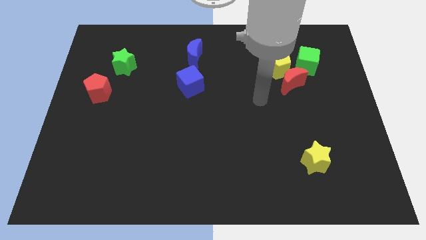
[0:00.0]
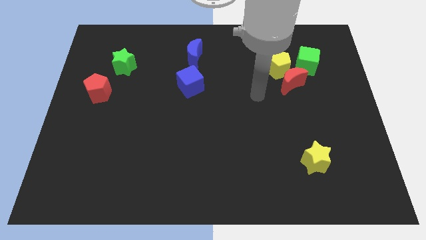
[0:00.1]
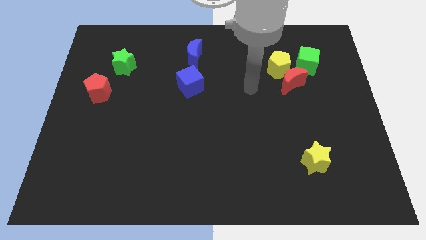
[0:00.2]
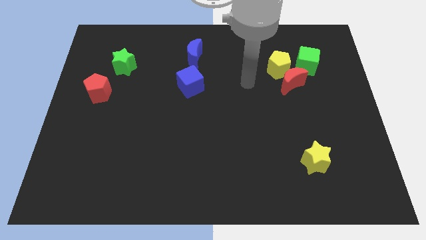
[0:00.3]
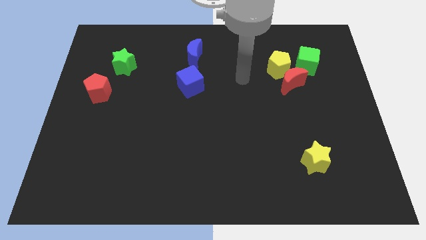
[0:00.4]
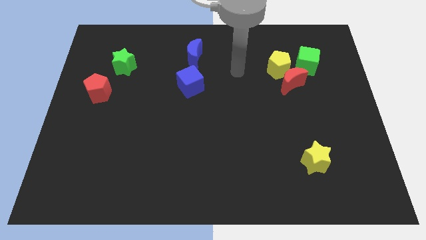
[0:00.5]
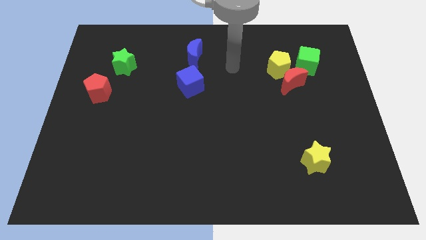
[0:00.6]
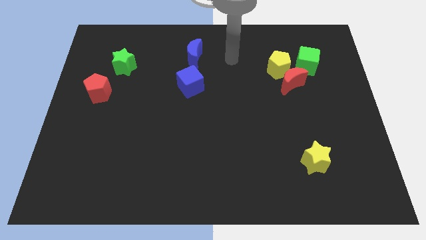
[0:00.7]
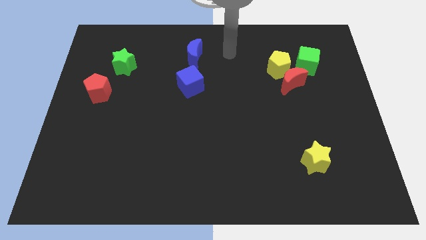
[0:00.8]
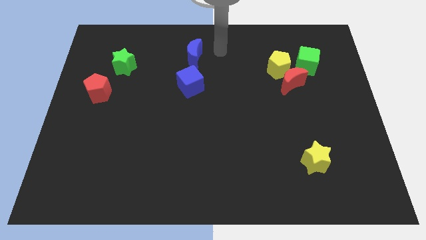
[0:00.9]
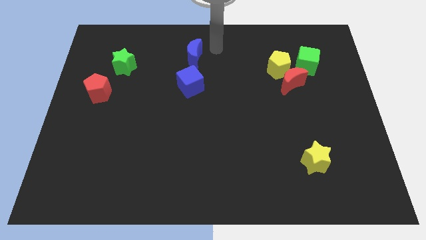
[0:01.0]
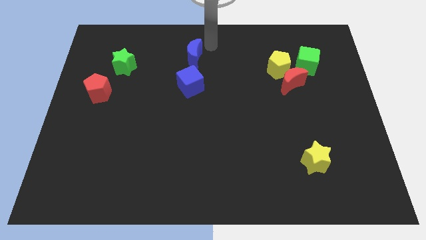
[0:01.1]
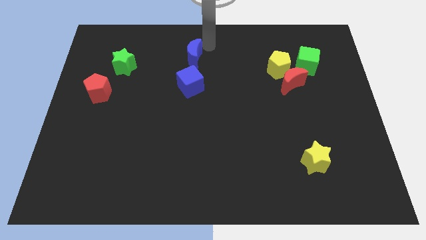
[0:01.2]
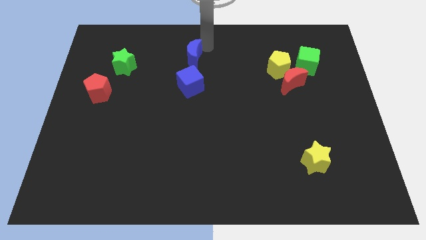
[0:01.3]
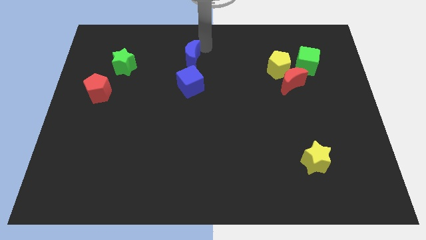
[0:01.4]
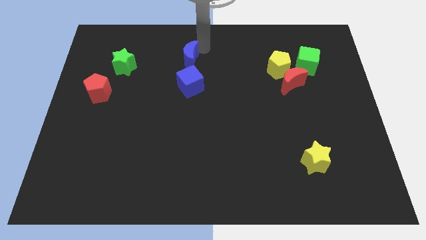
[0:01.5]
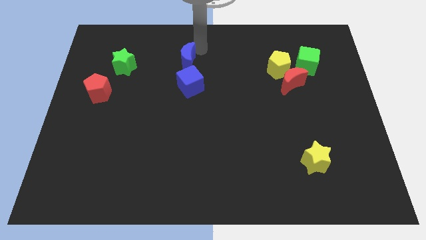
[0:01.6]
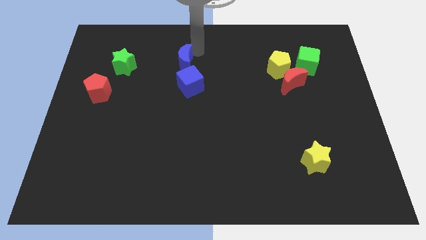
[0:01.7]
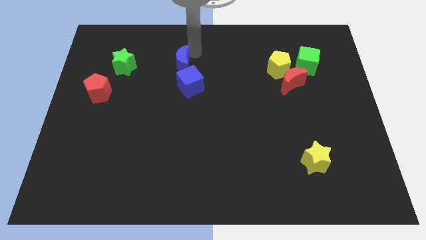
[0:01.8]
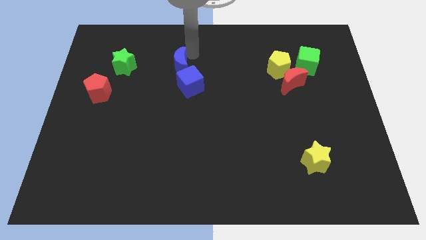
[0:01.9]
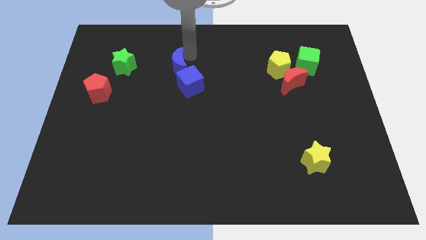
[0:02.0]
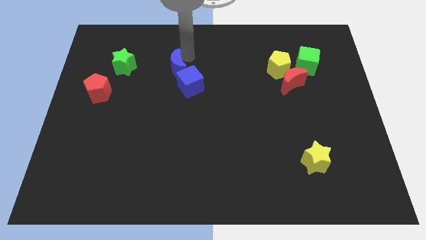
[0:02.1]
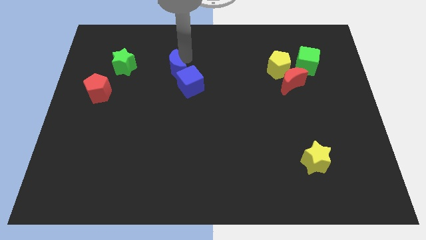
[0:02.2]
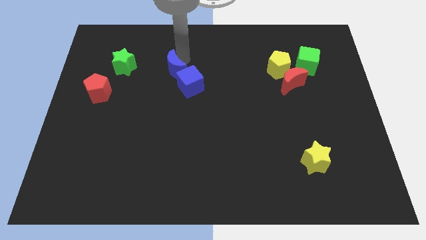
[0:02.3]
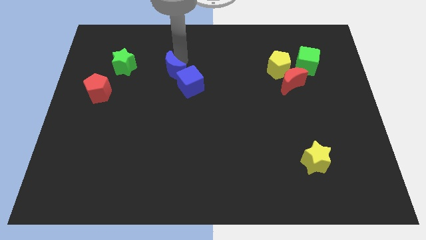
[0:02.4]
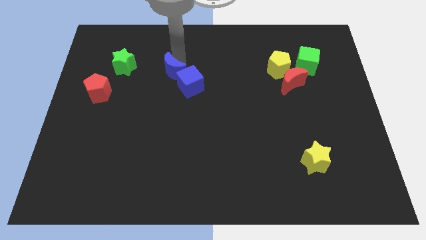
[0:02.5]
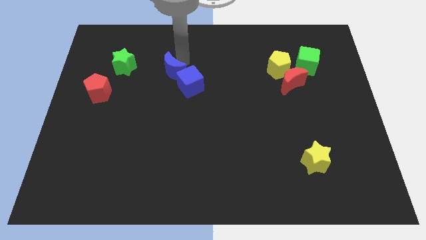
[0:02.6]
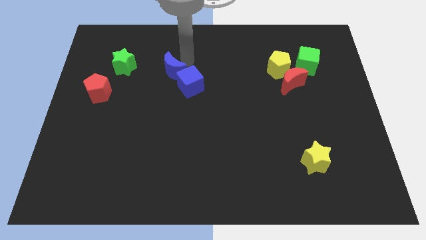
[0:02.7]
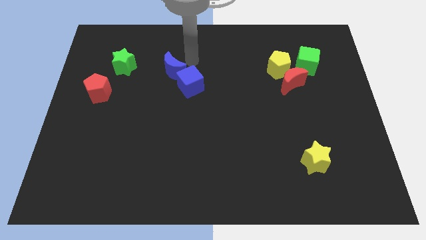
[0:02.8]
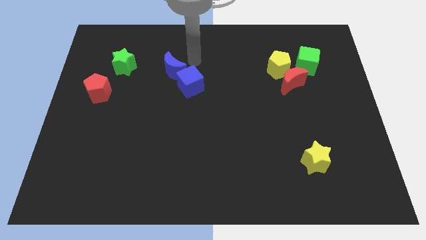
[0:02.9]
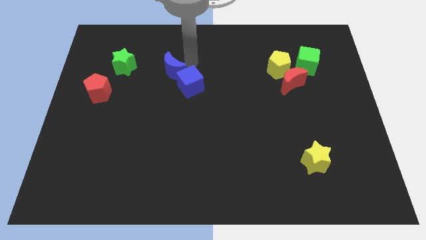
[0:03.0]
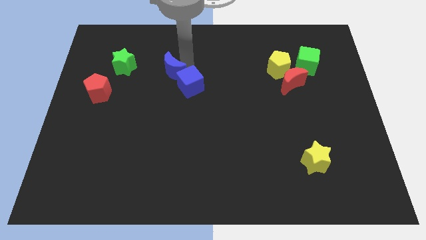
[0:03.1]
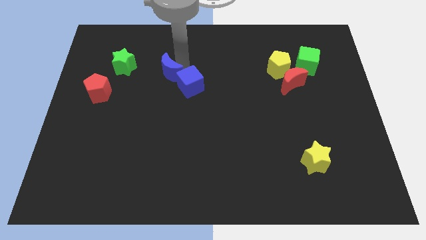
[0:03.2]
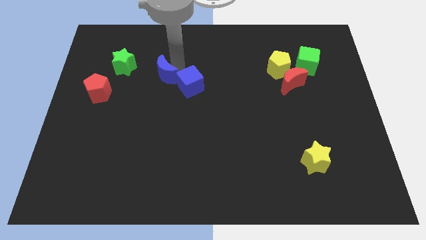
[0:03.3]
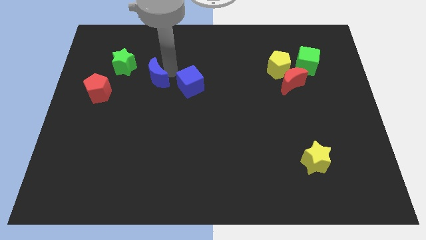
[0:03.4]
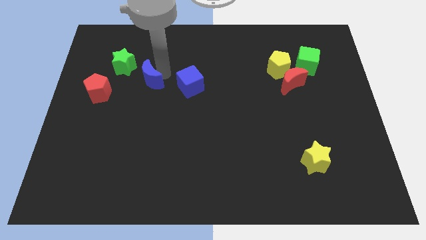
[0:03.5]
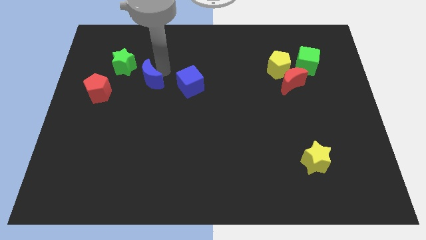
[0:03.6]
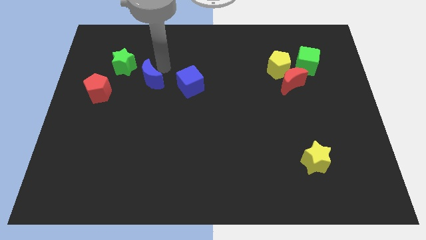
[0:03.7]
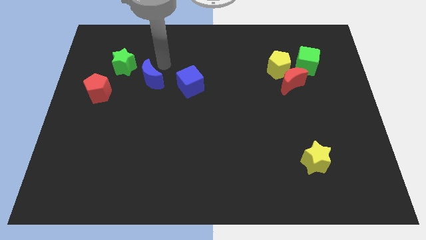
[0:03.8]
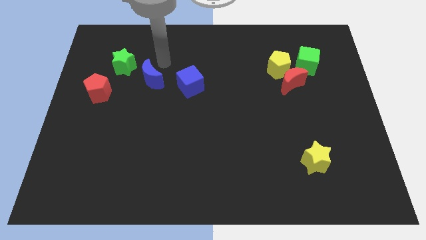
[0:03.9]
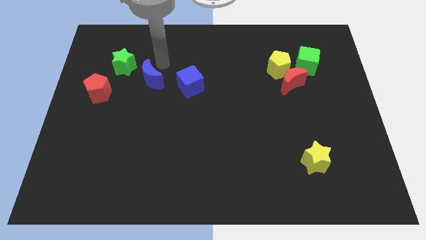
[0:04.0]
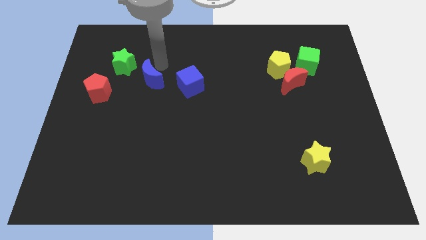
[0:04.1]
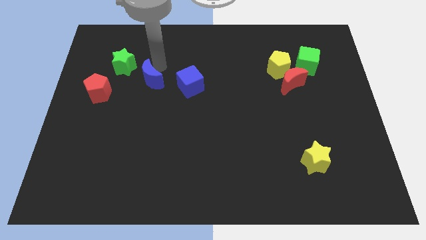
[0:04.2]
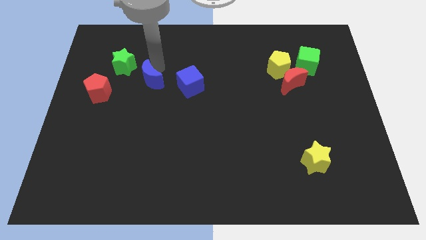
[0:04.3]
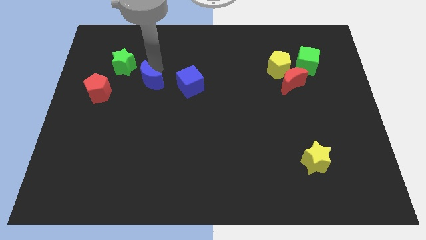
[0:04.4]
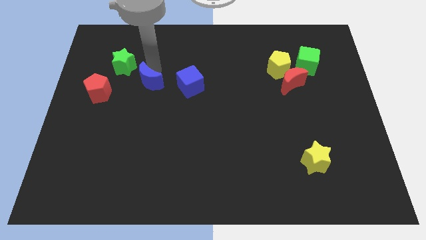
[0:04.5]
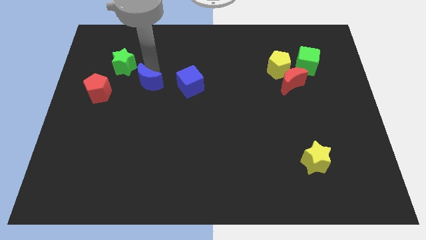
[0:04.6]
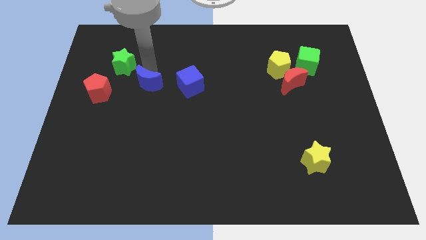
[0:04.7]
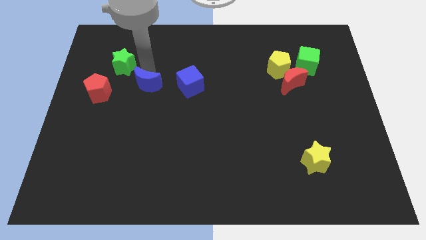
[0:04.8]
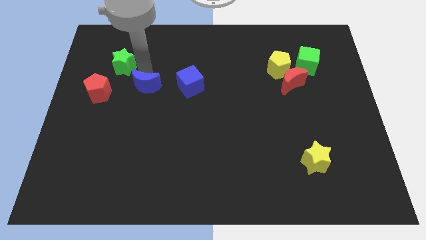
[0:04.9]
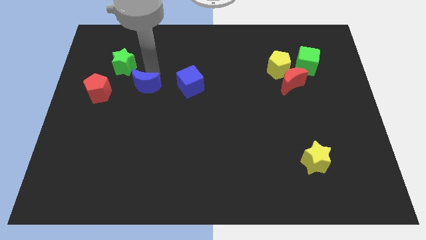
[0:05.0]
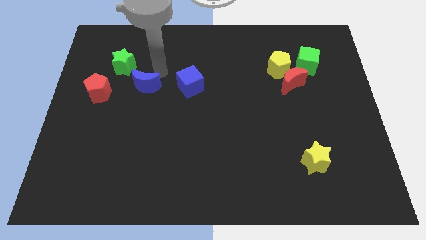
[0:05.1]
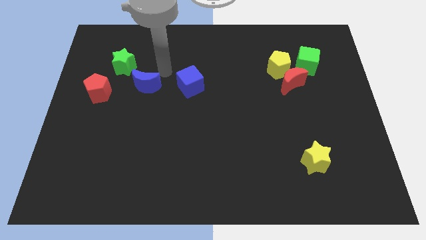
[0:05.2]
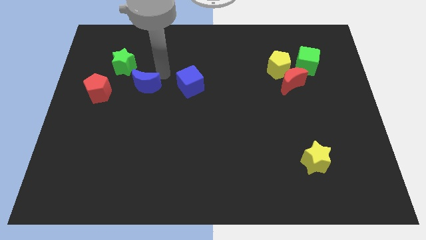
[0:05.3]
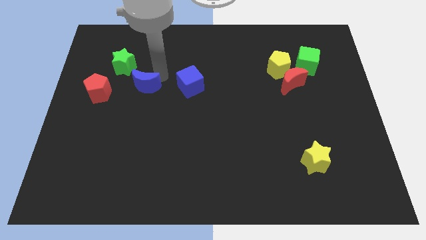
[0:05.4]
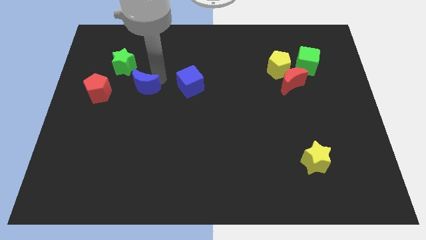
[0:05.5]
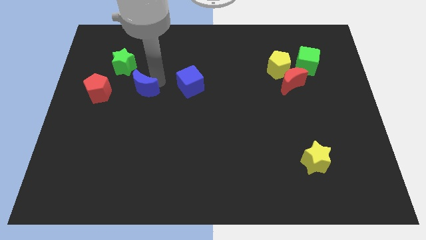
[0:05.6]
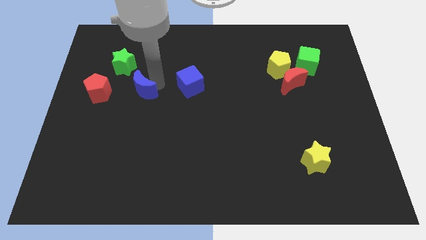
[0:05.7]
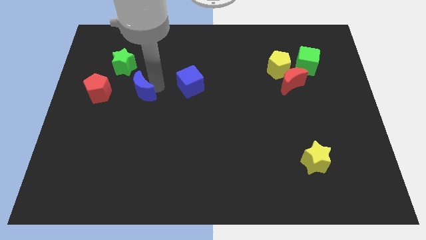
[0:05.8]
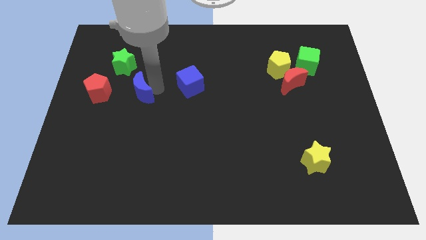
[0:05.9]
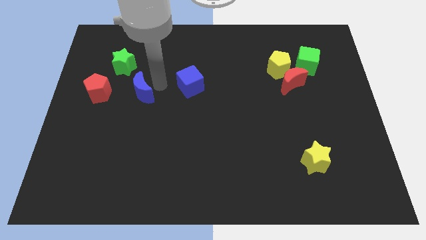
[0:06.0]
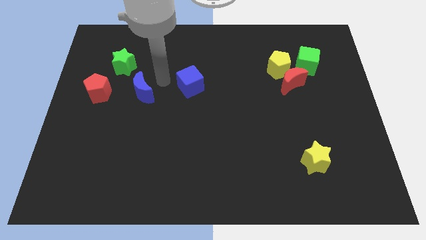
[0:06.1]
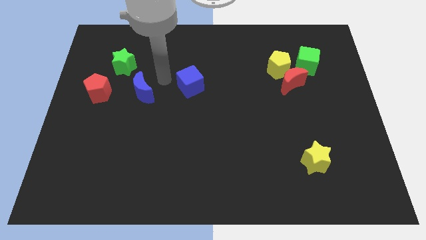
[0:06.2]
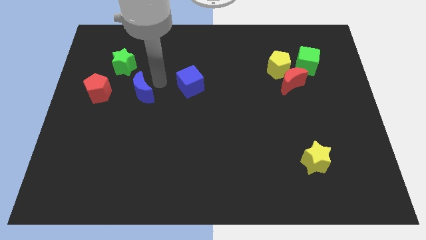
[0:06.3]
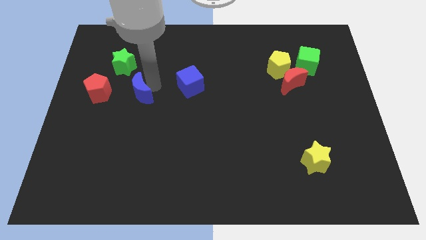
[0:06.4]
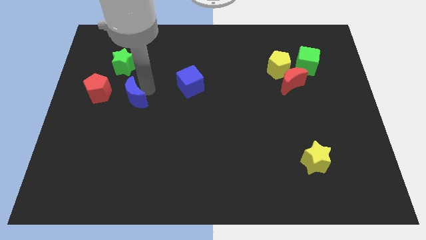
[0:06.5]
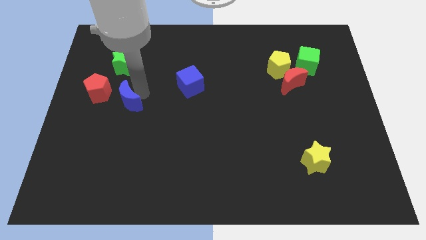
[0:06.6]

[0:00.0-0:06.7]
move the blue moon to the bottom right of the red pentagon

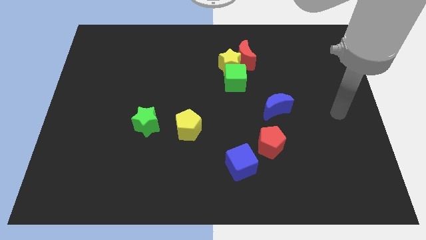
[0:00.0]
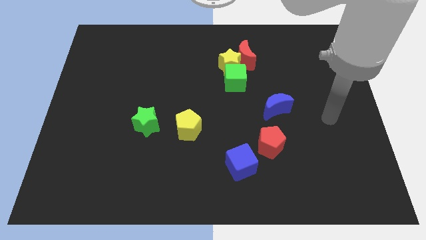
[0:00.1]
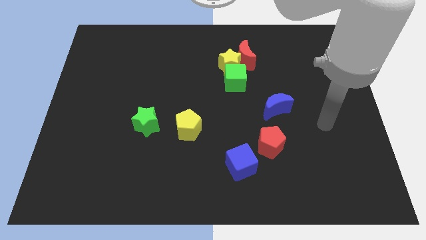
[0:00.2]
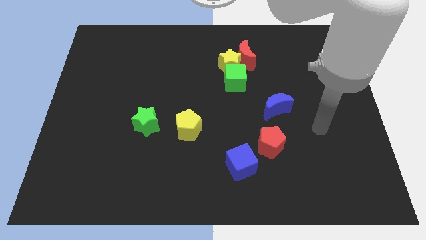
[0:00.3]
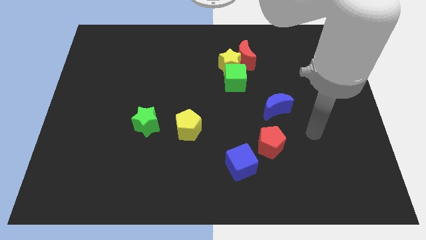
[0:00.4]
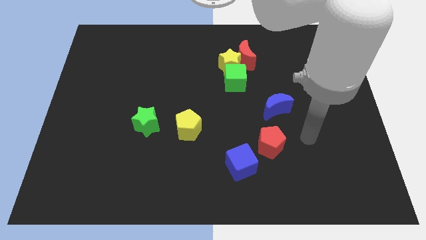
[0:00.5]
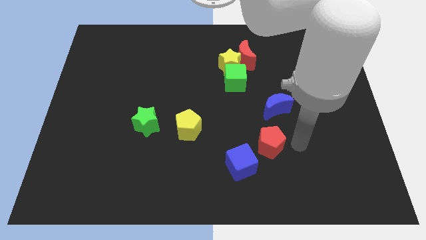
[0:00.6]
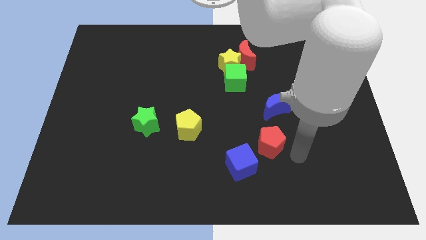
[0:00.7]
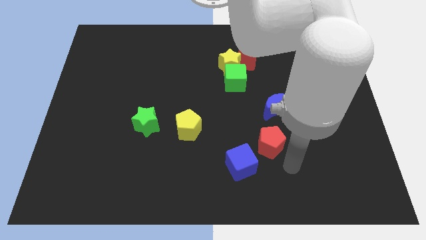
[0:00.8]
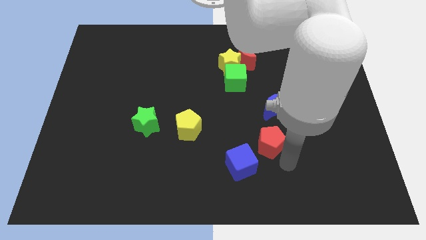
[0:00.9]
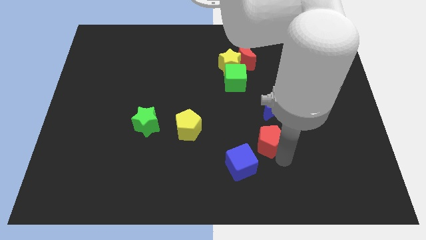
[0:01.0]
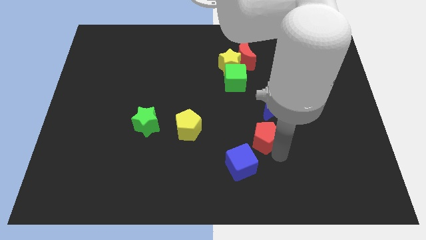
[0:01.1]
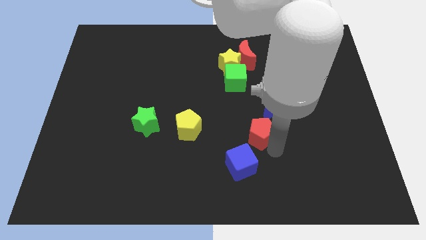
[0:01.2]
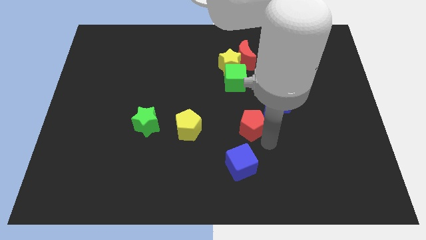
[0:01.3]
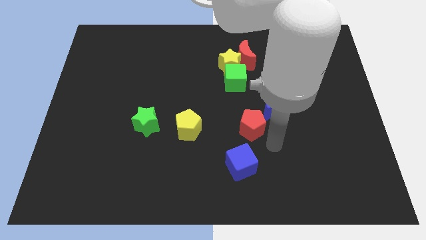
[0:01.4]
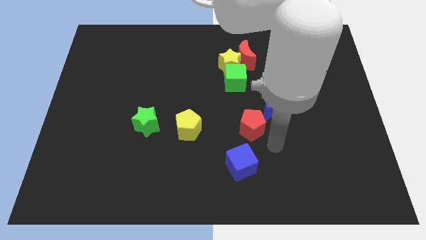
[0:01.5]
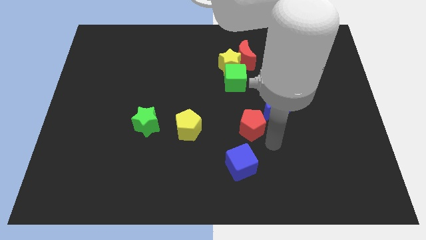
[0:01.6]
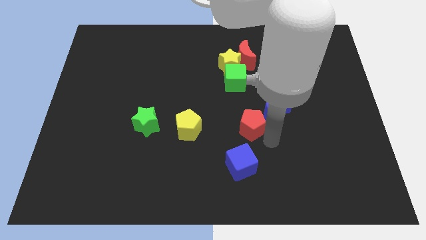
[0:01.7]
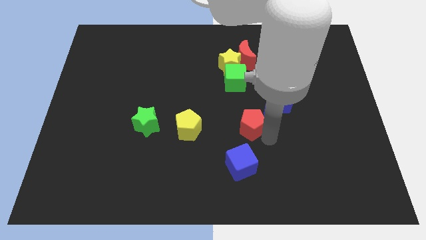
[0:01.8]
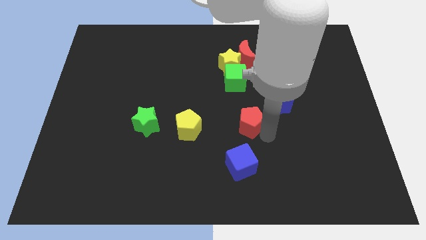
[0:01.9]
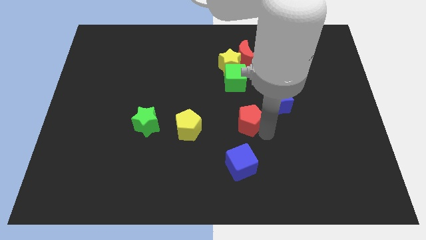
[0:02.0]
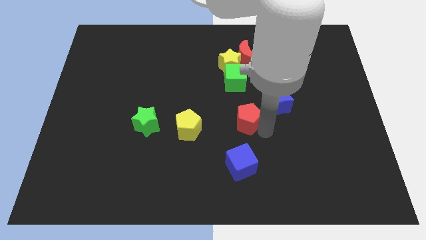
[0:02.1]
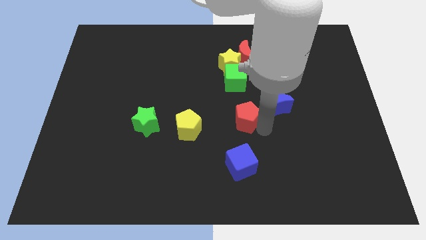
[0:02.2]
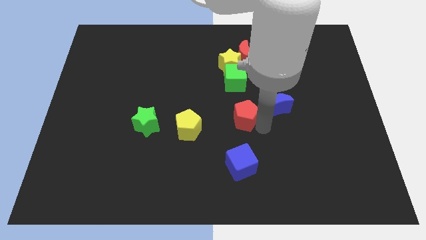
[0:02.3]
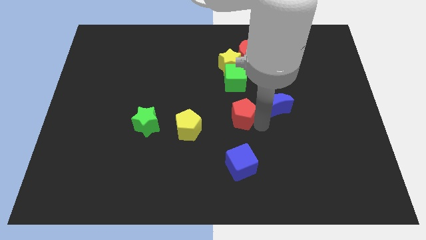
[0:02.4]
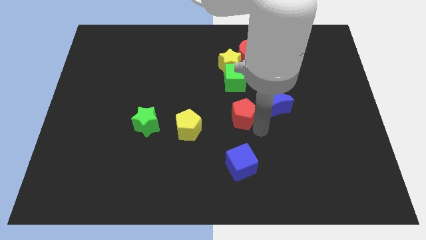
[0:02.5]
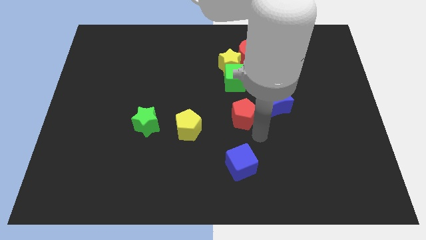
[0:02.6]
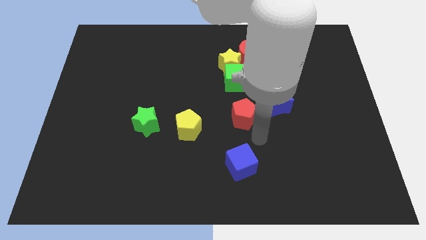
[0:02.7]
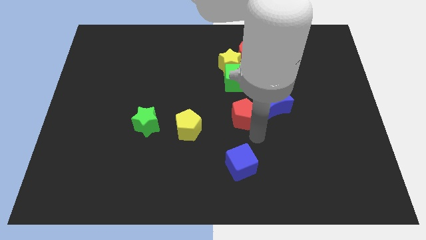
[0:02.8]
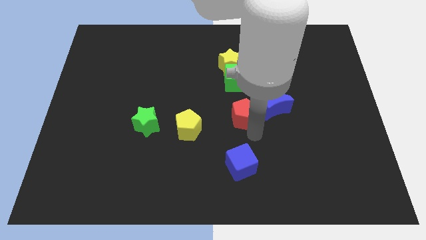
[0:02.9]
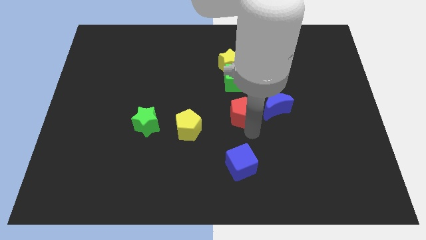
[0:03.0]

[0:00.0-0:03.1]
slide the red pentagon below the yellow star
